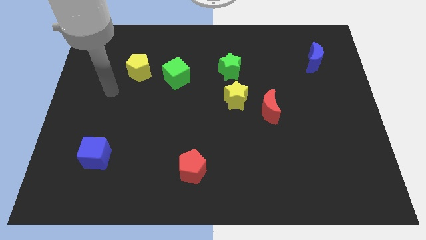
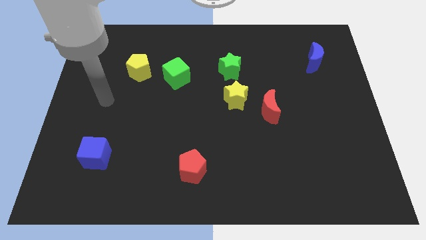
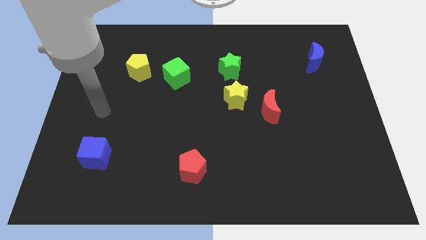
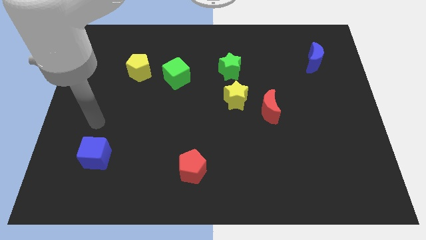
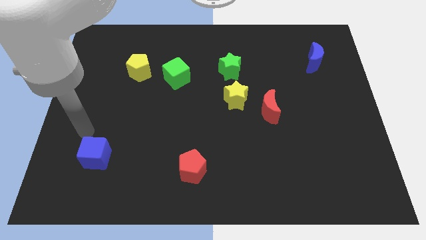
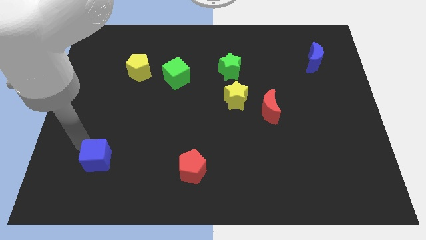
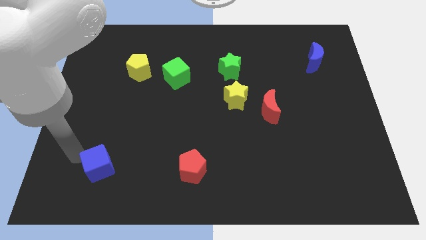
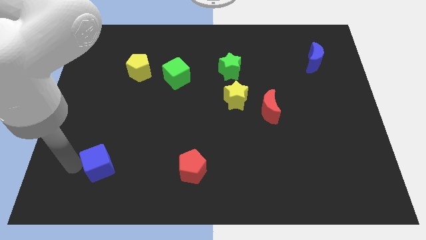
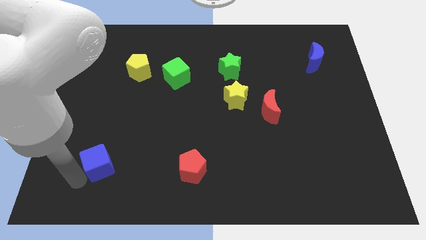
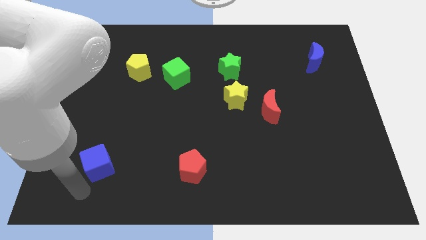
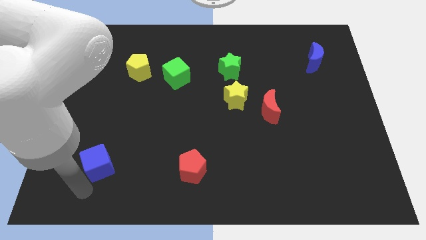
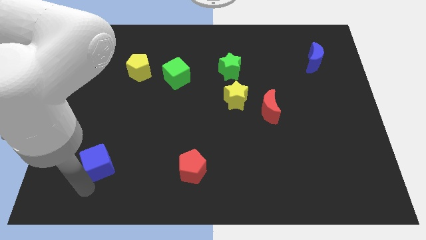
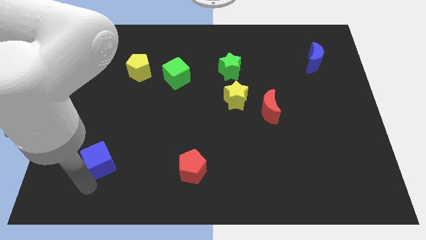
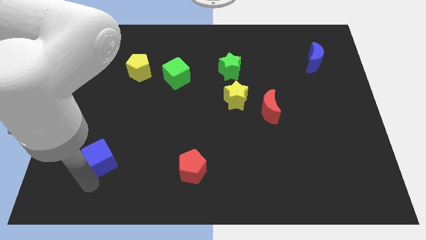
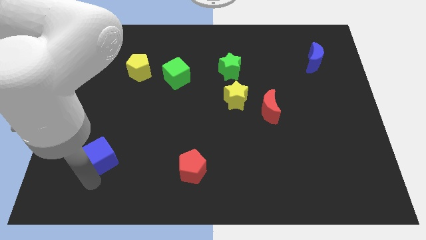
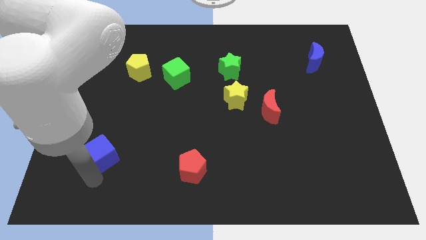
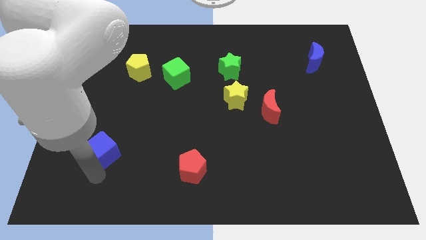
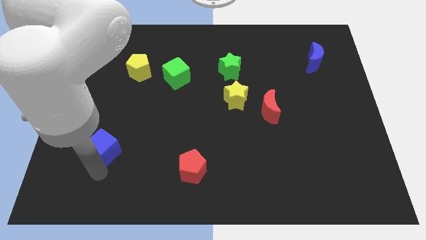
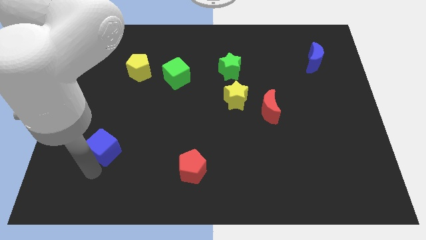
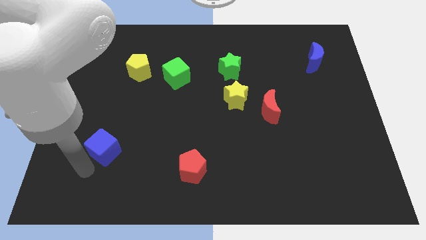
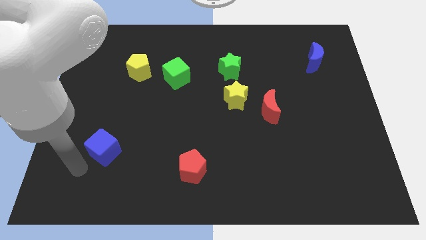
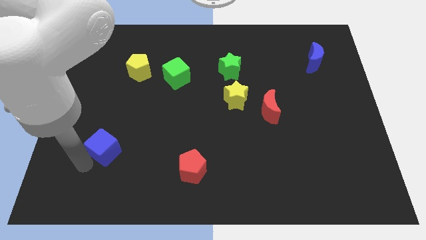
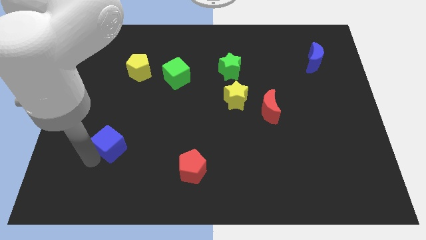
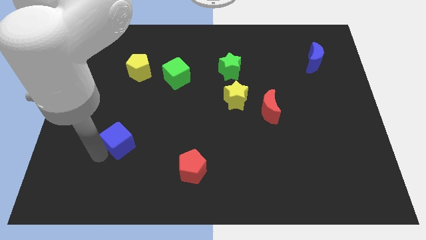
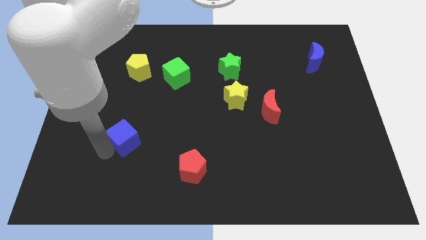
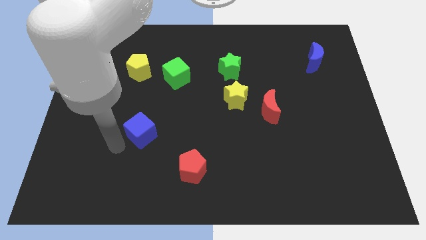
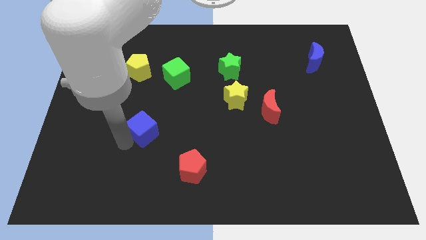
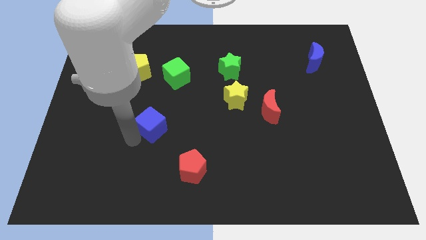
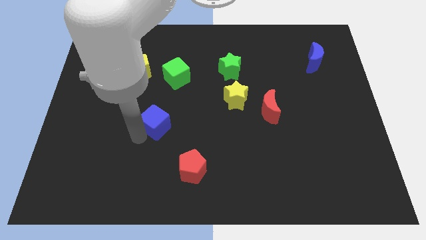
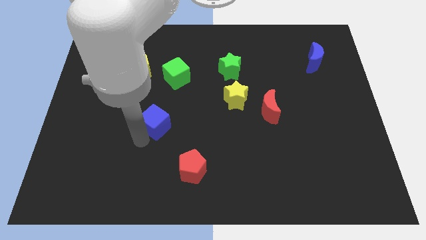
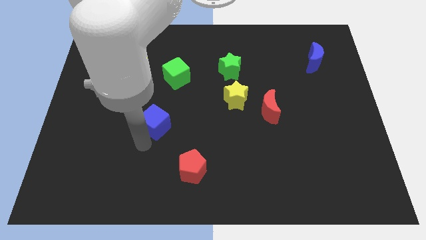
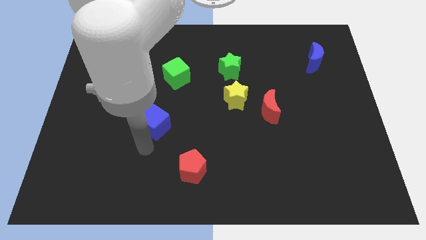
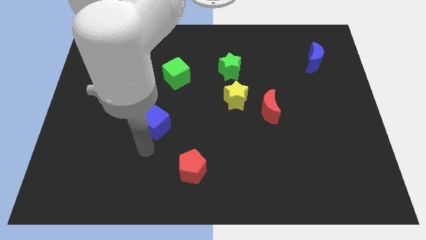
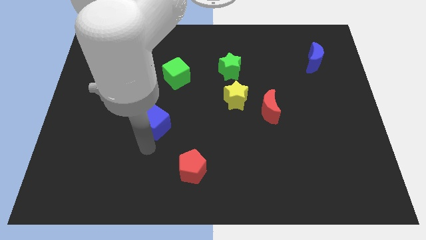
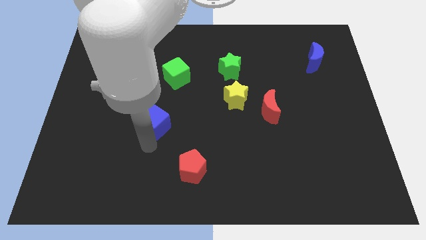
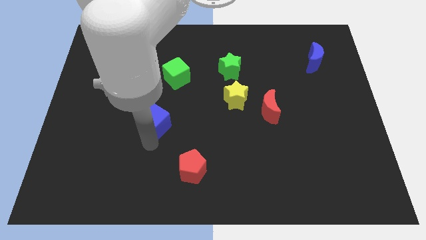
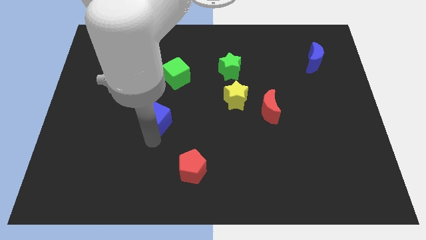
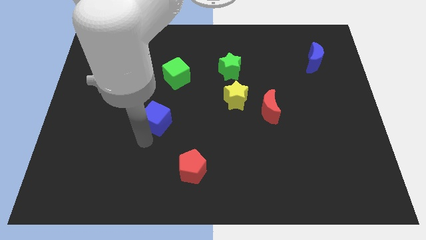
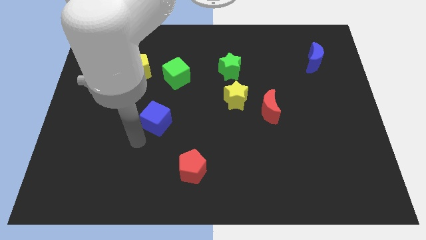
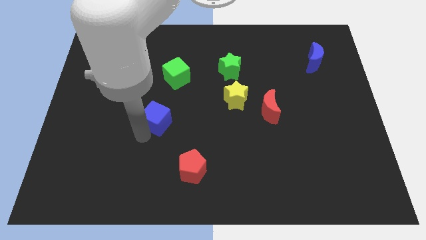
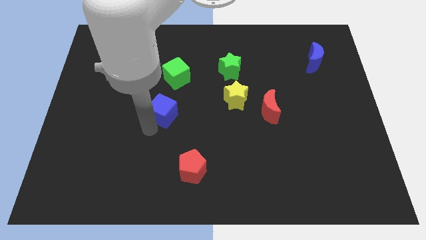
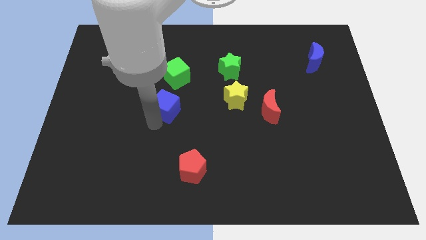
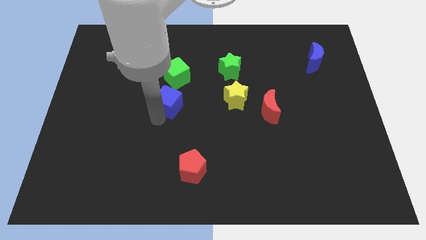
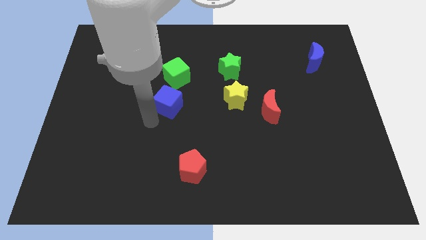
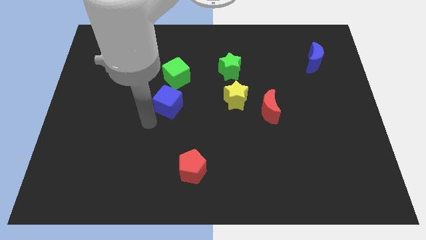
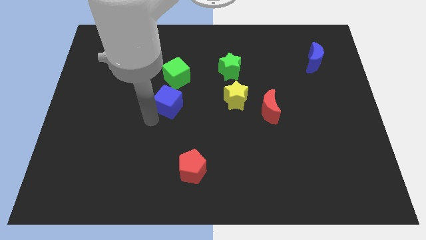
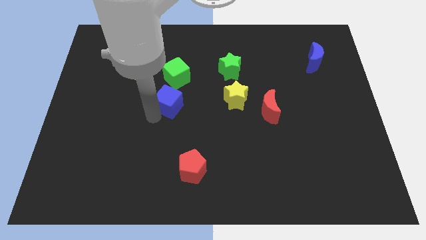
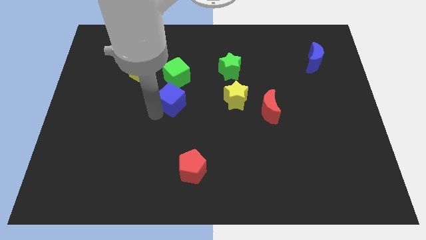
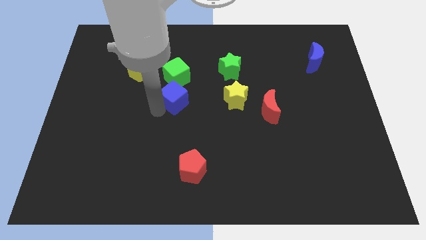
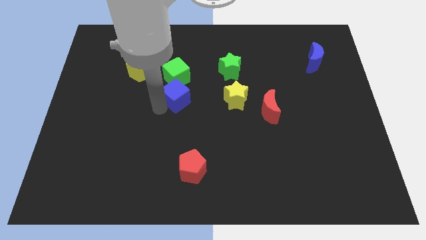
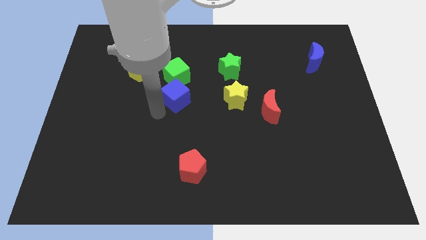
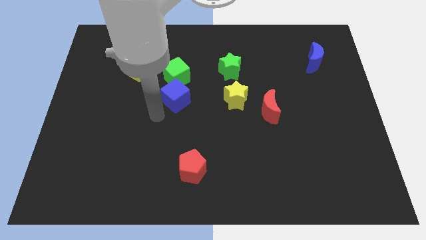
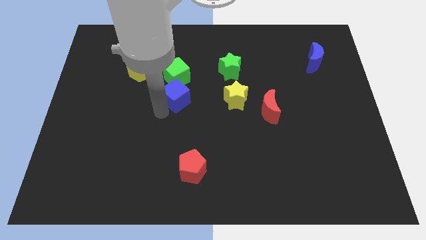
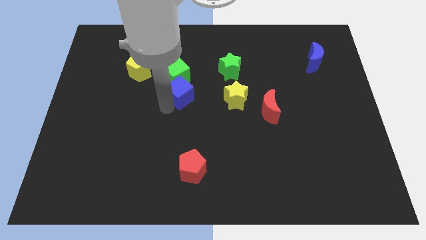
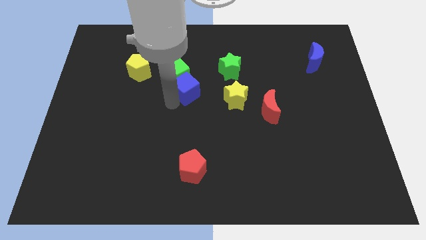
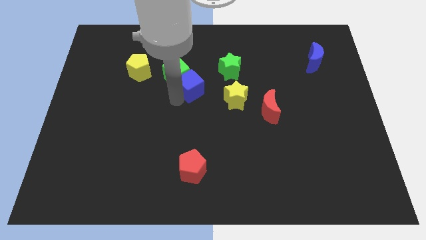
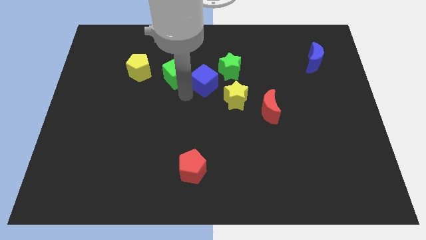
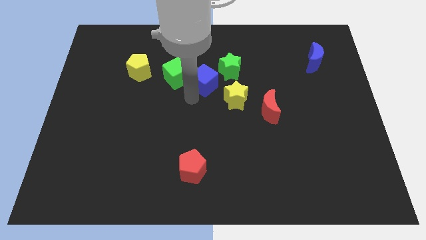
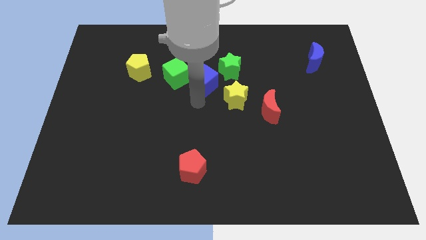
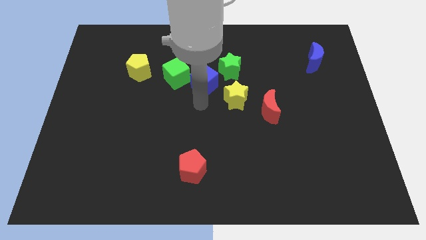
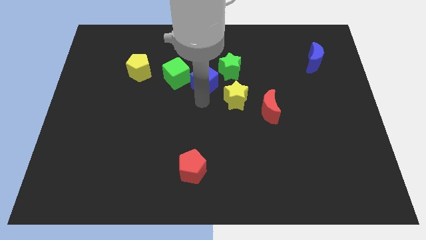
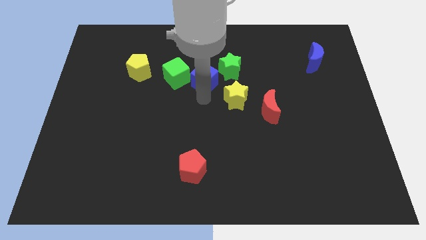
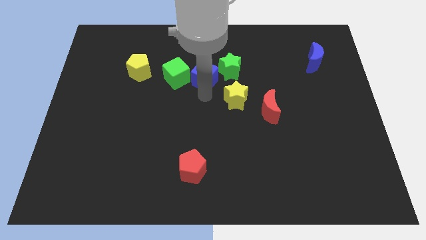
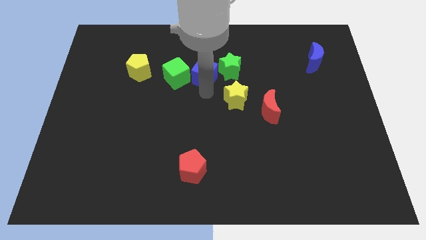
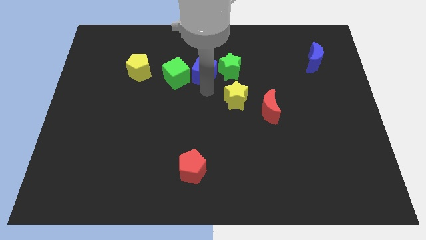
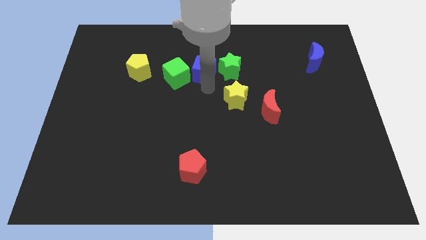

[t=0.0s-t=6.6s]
put the blue cube diagonally up and to the left of the green star
